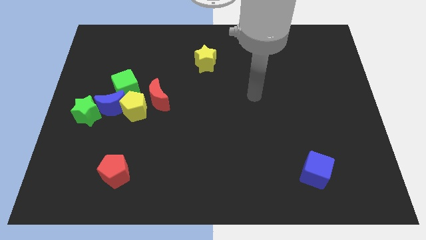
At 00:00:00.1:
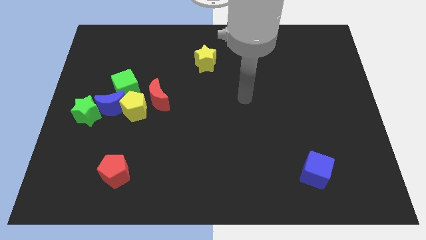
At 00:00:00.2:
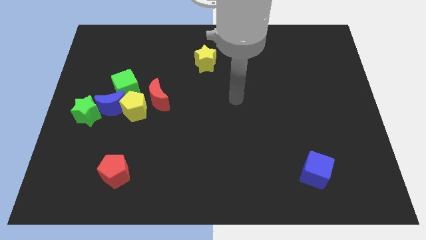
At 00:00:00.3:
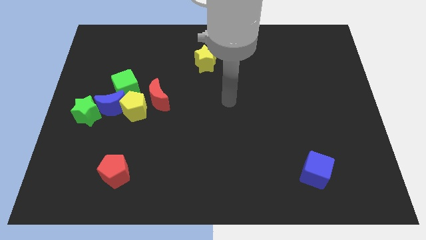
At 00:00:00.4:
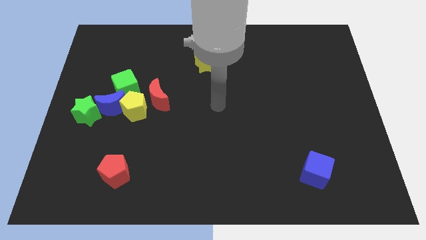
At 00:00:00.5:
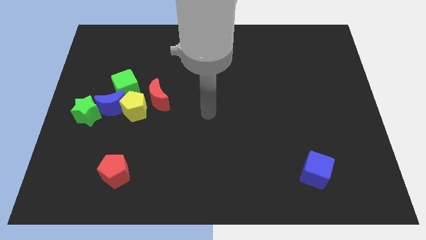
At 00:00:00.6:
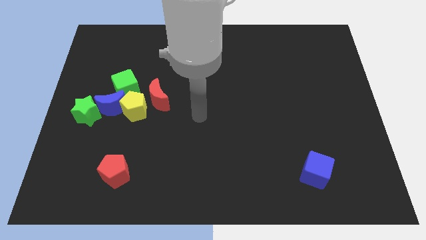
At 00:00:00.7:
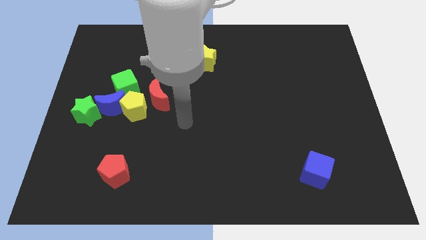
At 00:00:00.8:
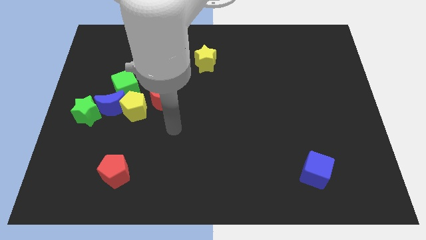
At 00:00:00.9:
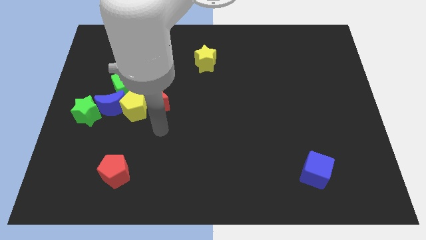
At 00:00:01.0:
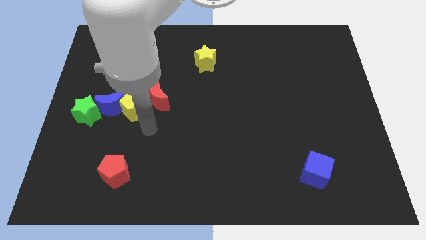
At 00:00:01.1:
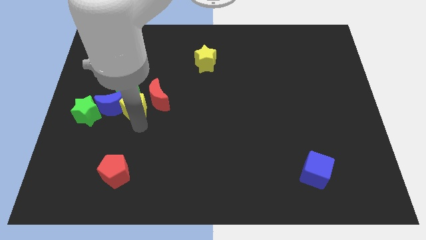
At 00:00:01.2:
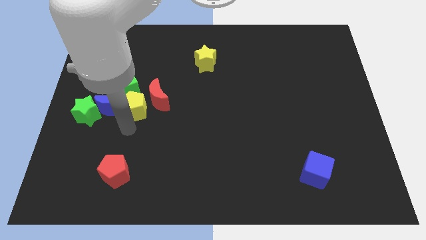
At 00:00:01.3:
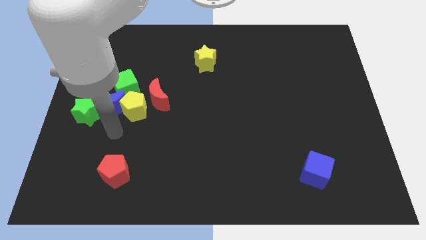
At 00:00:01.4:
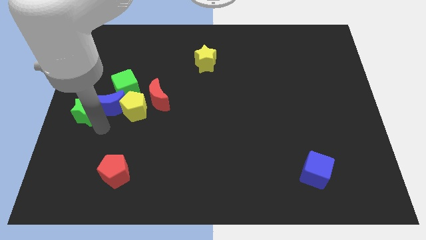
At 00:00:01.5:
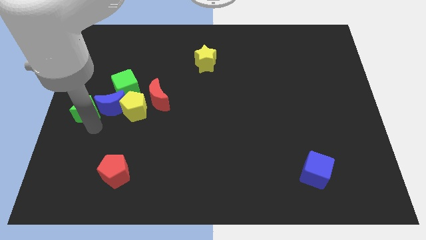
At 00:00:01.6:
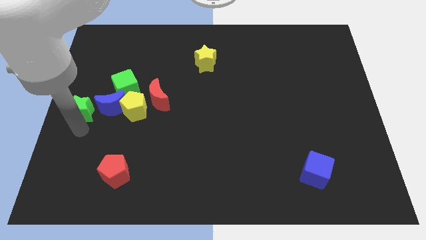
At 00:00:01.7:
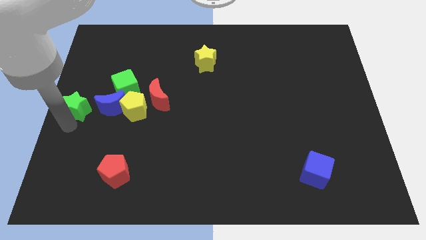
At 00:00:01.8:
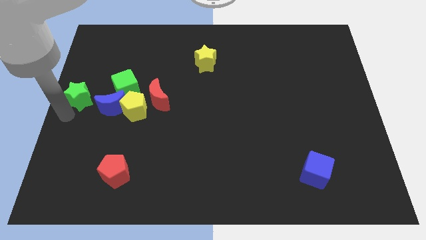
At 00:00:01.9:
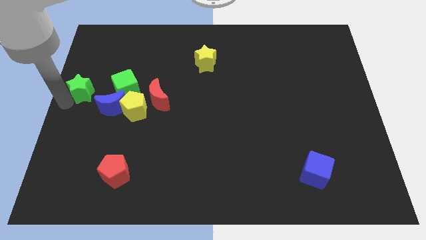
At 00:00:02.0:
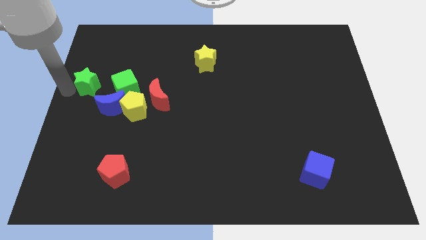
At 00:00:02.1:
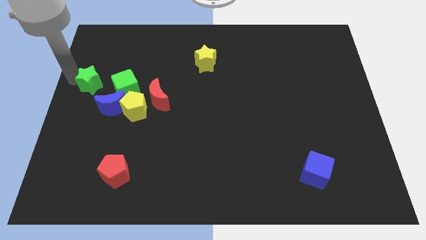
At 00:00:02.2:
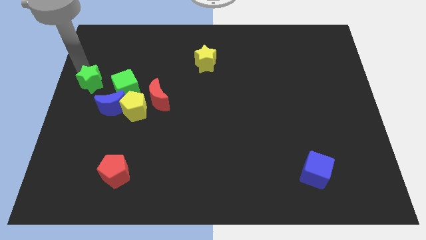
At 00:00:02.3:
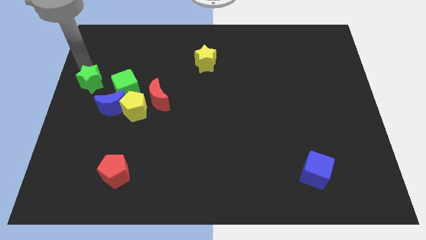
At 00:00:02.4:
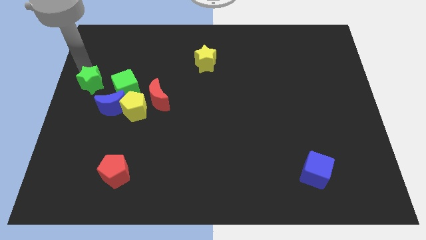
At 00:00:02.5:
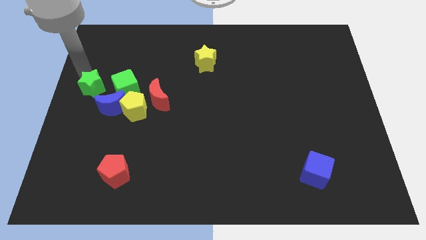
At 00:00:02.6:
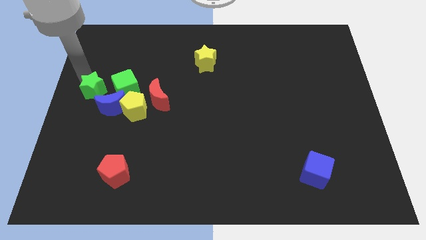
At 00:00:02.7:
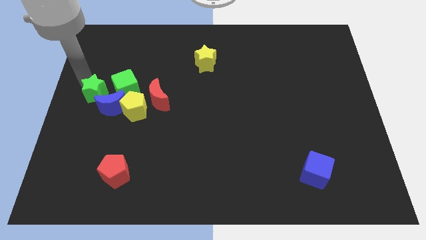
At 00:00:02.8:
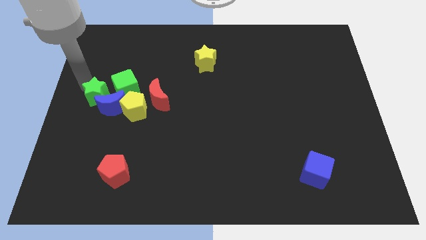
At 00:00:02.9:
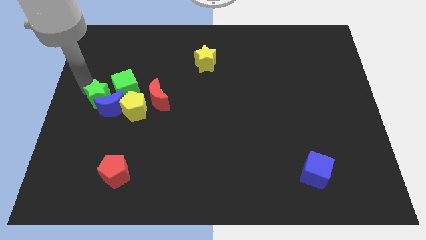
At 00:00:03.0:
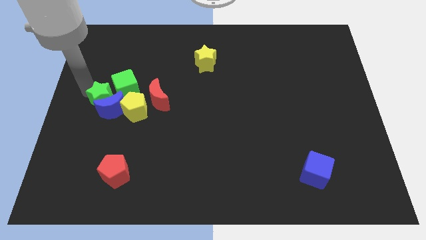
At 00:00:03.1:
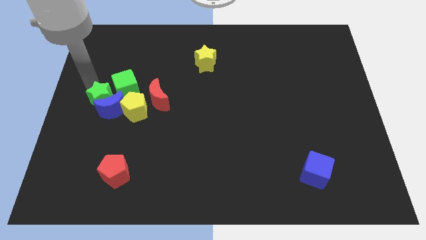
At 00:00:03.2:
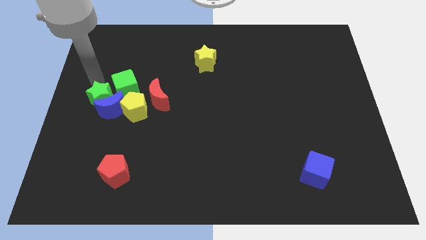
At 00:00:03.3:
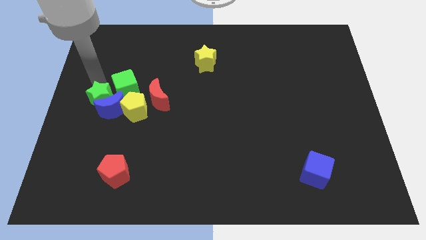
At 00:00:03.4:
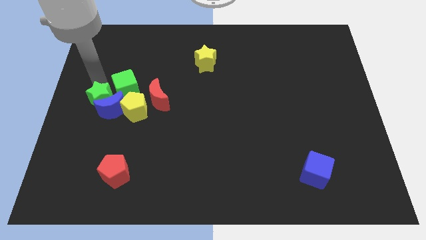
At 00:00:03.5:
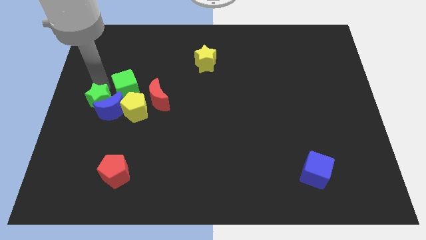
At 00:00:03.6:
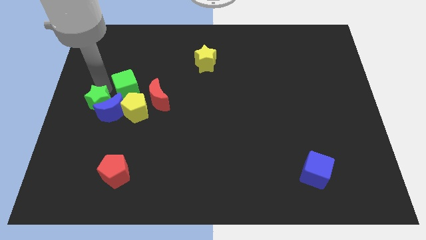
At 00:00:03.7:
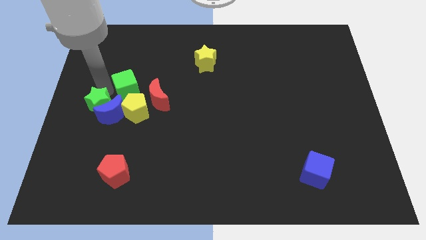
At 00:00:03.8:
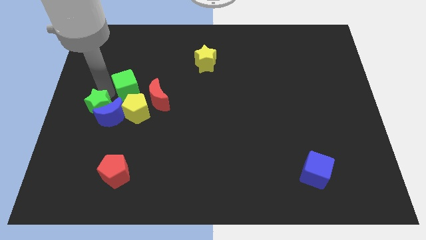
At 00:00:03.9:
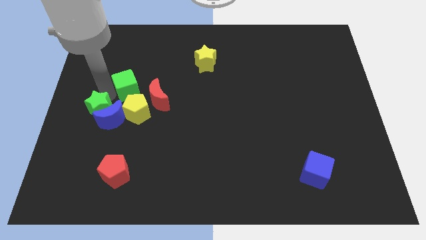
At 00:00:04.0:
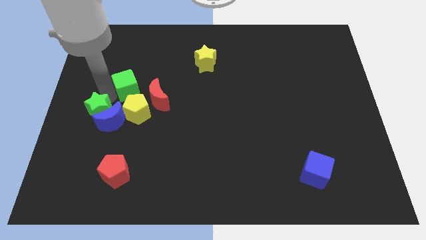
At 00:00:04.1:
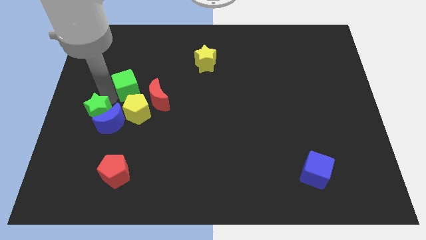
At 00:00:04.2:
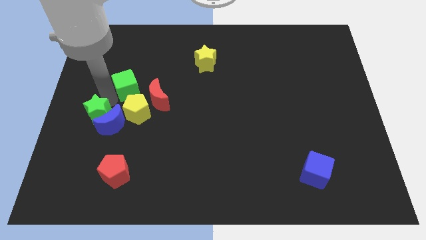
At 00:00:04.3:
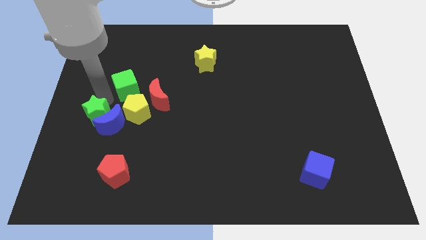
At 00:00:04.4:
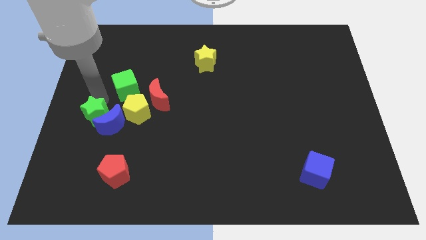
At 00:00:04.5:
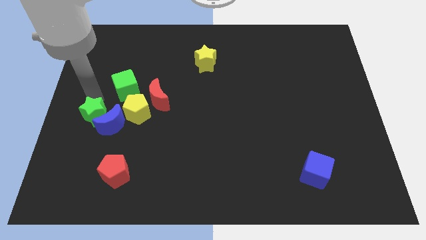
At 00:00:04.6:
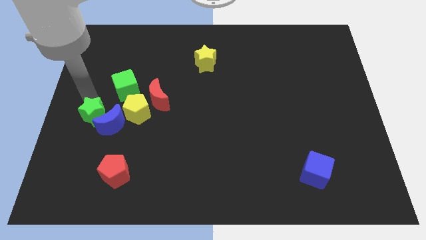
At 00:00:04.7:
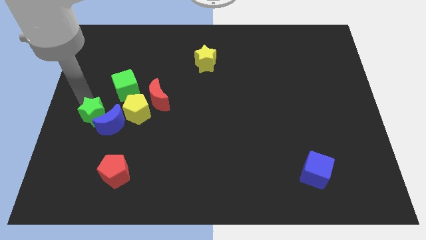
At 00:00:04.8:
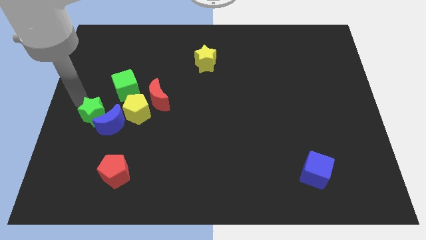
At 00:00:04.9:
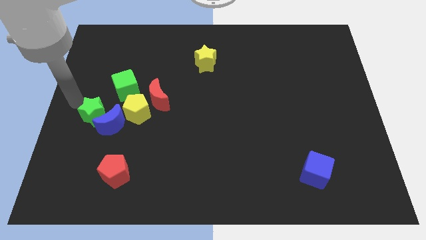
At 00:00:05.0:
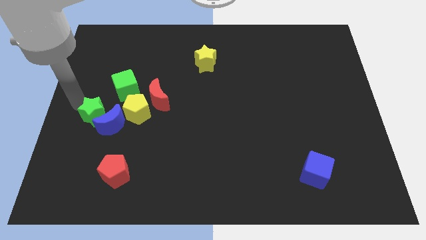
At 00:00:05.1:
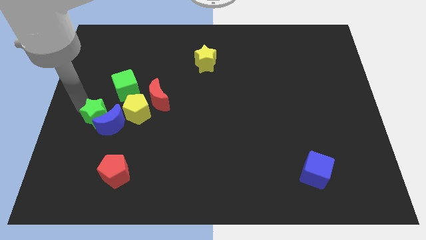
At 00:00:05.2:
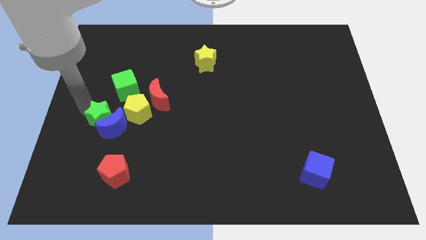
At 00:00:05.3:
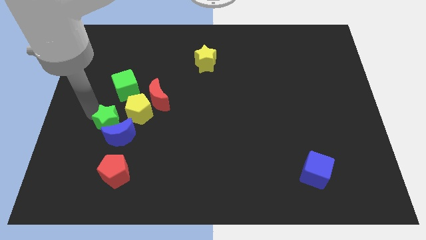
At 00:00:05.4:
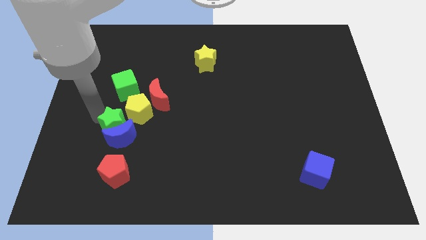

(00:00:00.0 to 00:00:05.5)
slide the green star right somewhat

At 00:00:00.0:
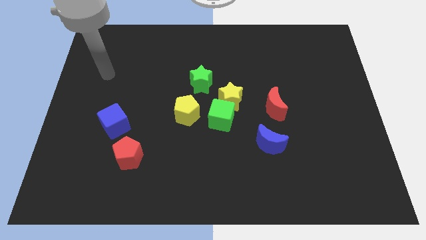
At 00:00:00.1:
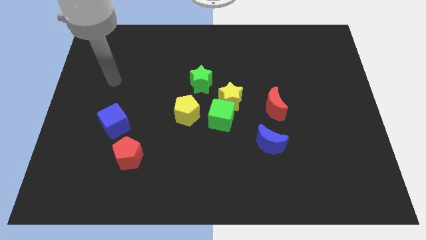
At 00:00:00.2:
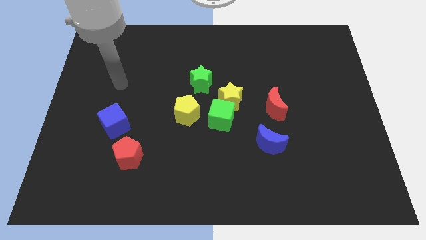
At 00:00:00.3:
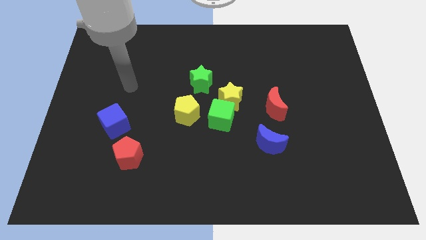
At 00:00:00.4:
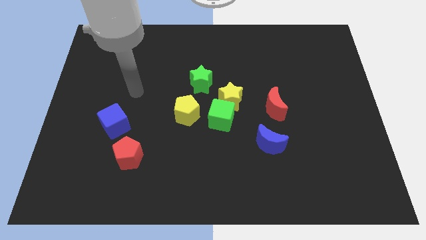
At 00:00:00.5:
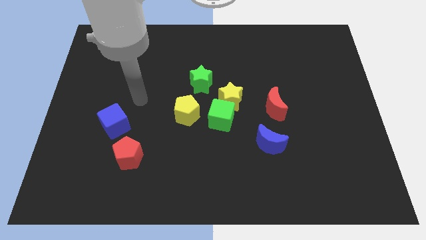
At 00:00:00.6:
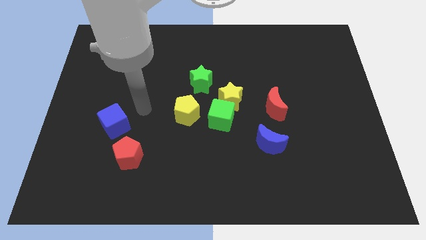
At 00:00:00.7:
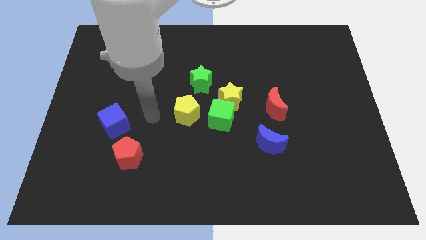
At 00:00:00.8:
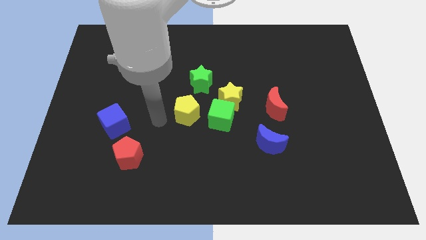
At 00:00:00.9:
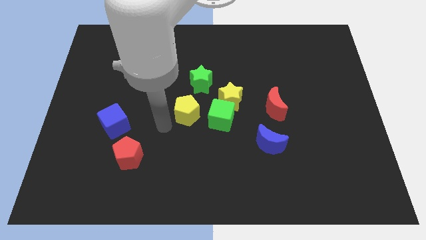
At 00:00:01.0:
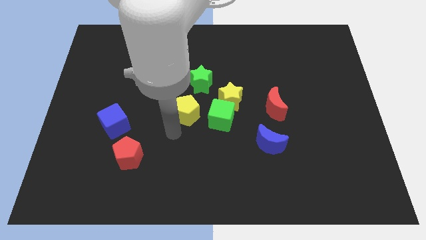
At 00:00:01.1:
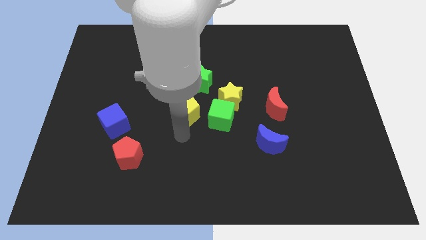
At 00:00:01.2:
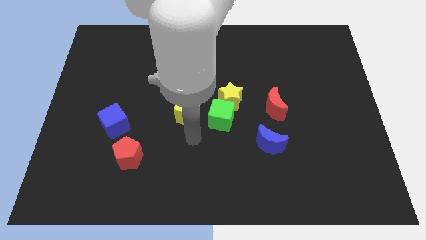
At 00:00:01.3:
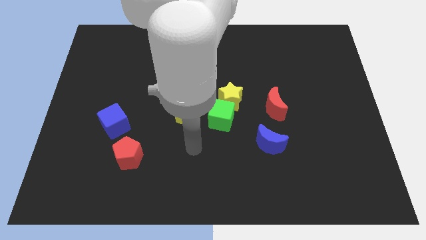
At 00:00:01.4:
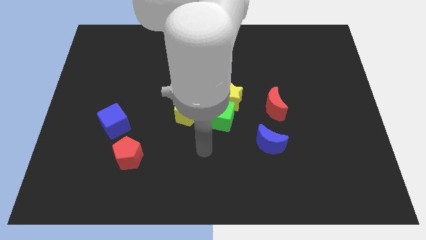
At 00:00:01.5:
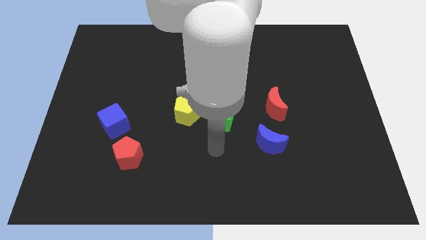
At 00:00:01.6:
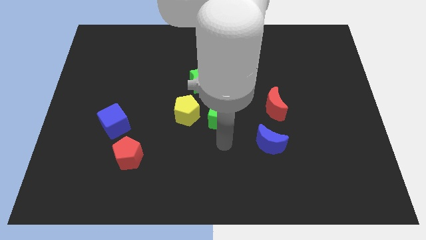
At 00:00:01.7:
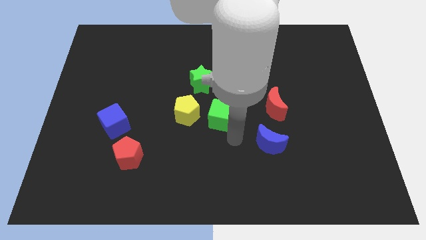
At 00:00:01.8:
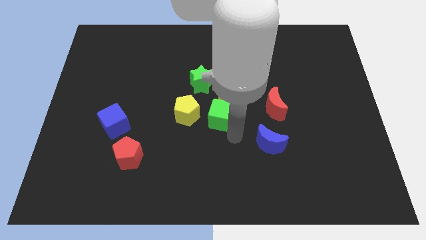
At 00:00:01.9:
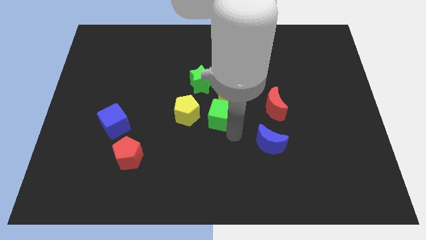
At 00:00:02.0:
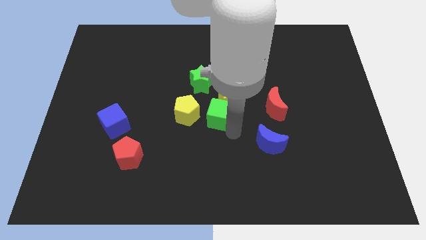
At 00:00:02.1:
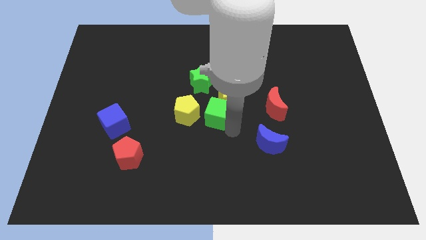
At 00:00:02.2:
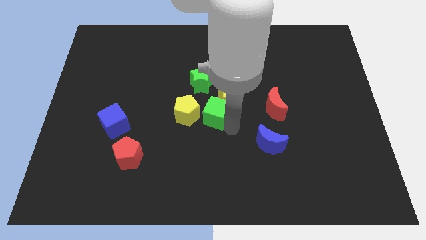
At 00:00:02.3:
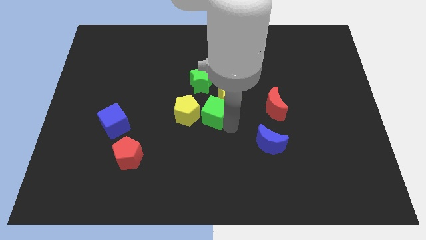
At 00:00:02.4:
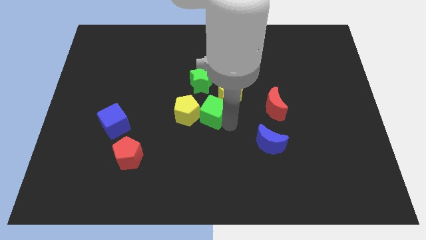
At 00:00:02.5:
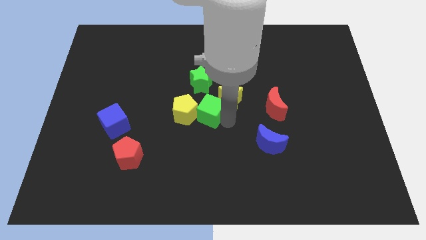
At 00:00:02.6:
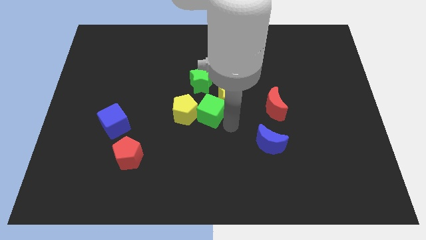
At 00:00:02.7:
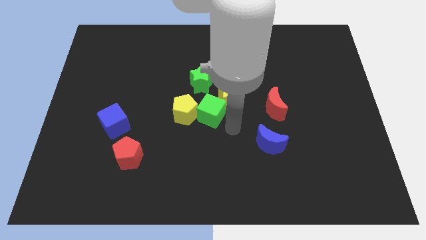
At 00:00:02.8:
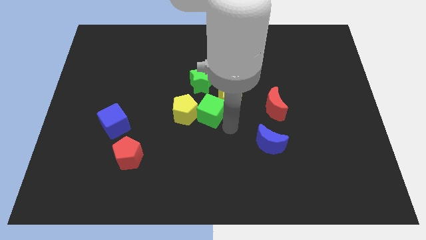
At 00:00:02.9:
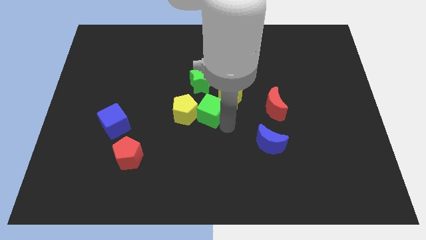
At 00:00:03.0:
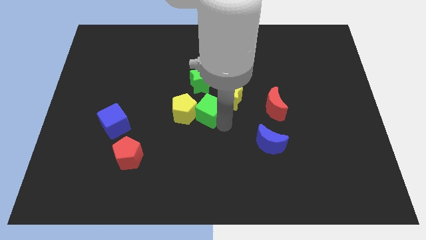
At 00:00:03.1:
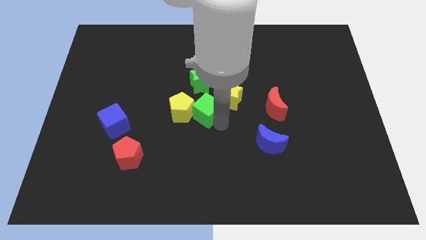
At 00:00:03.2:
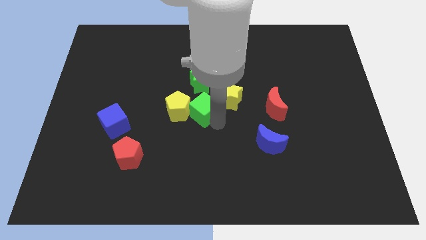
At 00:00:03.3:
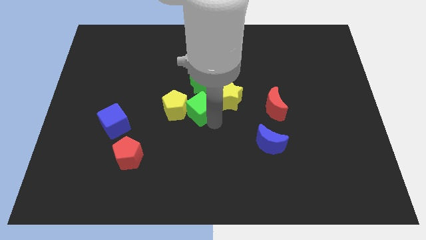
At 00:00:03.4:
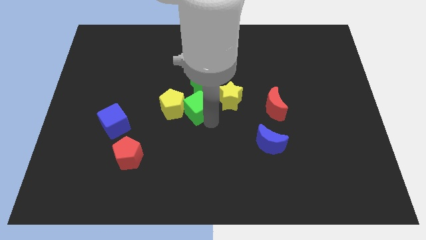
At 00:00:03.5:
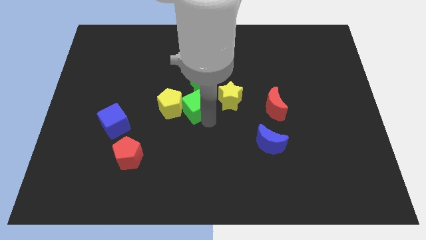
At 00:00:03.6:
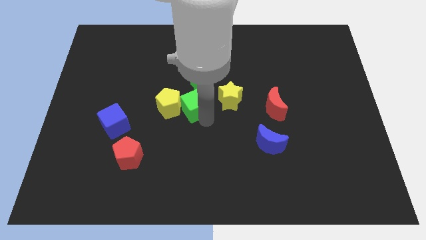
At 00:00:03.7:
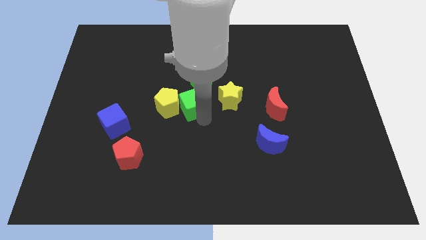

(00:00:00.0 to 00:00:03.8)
slide the green cube diagonally up and to the left a little
